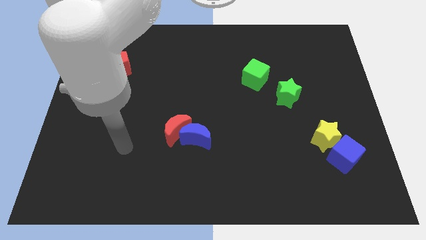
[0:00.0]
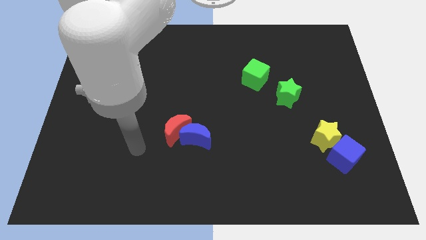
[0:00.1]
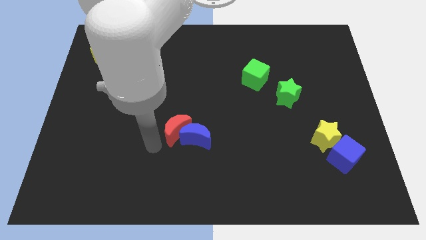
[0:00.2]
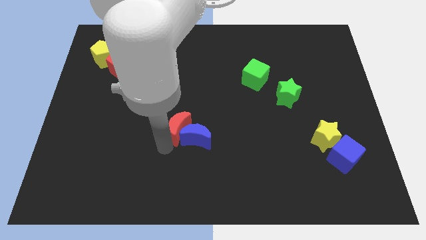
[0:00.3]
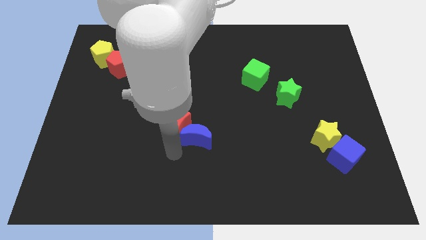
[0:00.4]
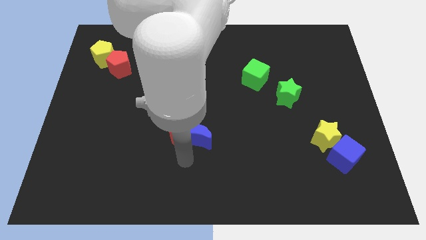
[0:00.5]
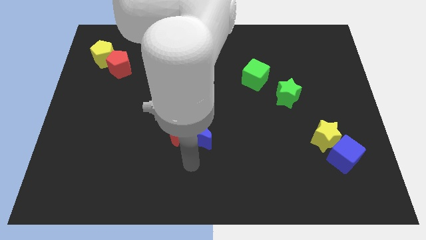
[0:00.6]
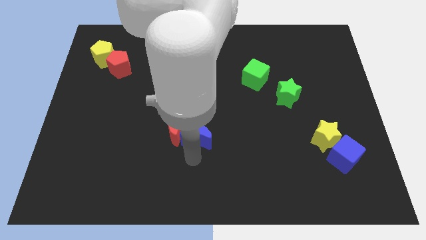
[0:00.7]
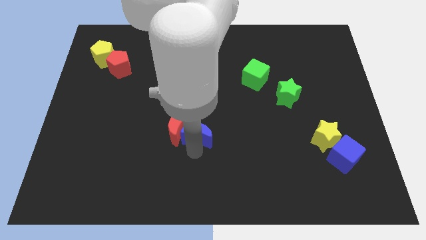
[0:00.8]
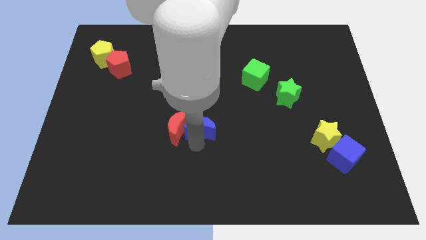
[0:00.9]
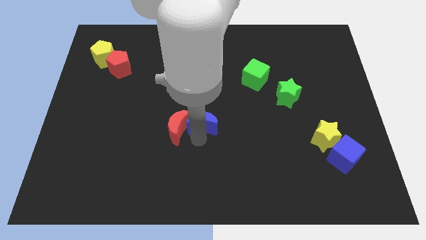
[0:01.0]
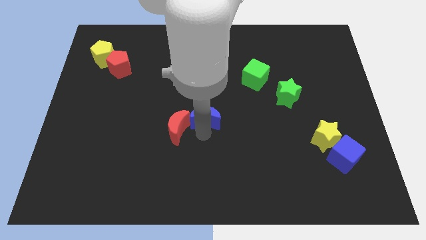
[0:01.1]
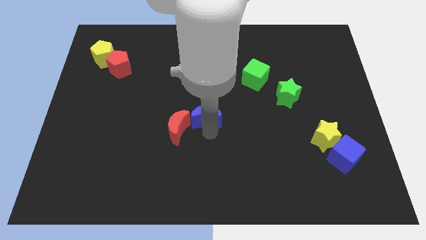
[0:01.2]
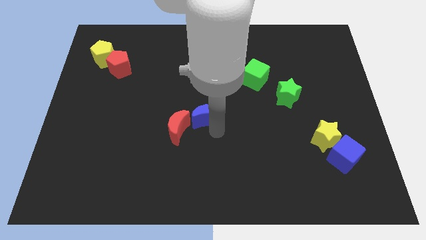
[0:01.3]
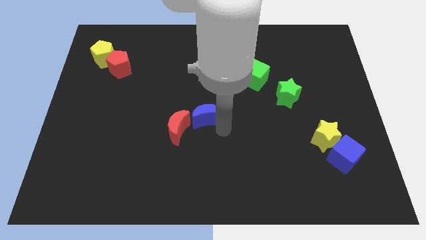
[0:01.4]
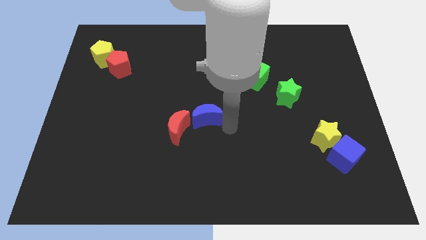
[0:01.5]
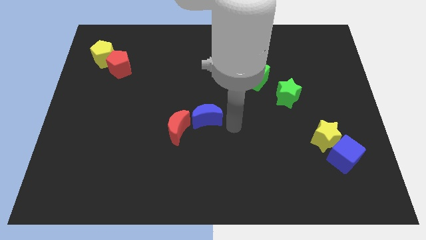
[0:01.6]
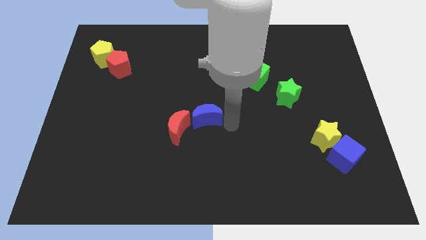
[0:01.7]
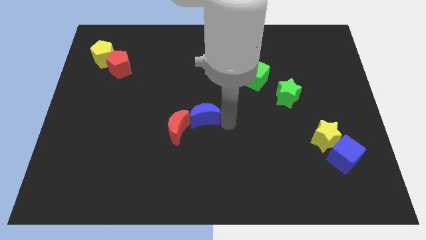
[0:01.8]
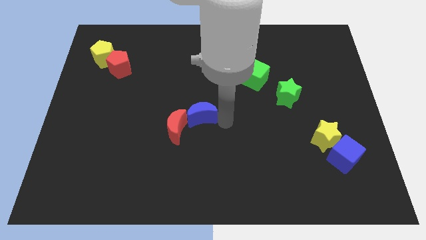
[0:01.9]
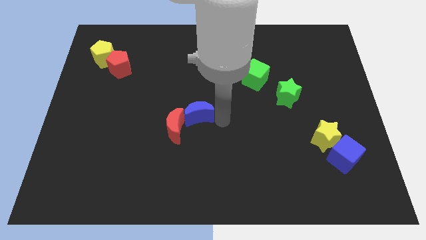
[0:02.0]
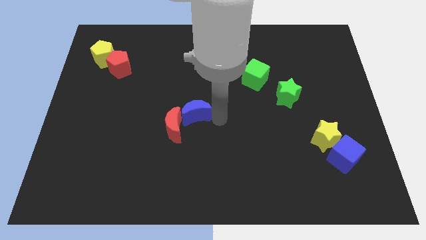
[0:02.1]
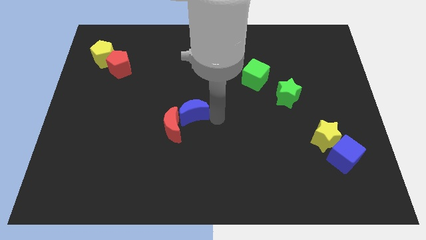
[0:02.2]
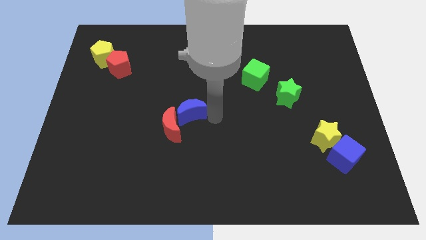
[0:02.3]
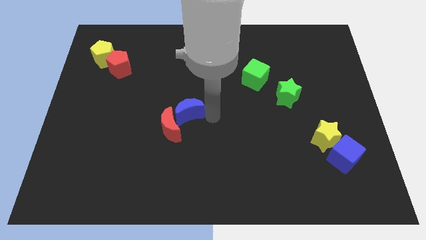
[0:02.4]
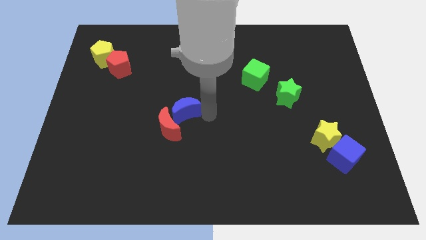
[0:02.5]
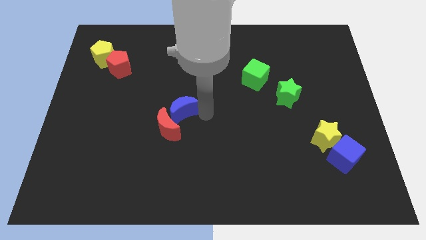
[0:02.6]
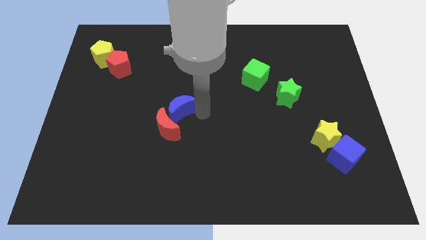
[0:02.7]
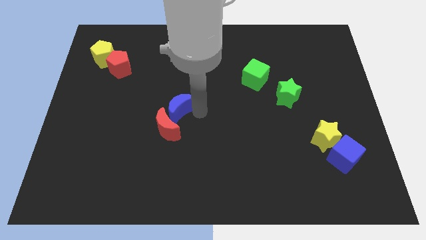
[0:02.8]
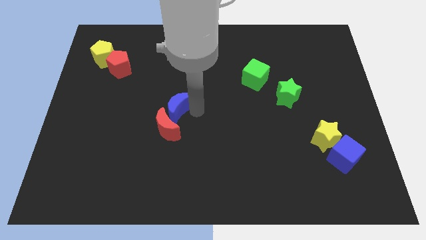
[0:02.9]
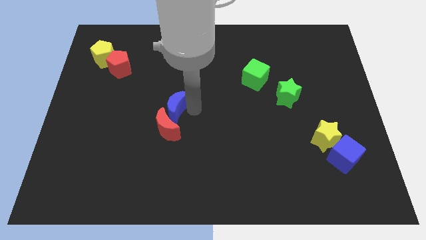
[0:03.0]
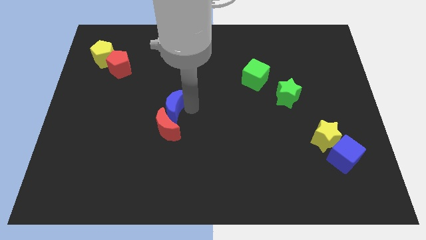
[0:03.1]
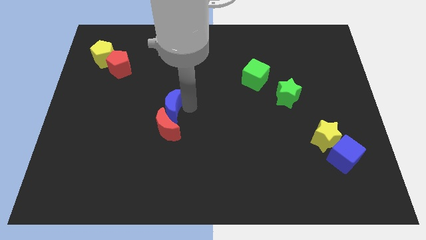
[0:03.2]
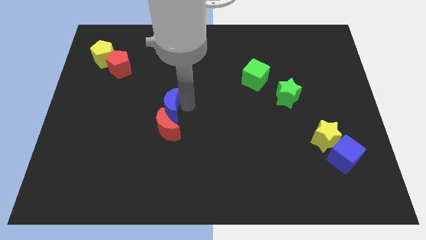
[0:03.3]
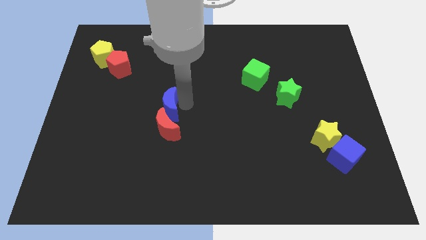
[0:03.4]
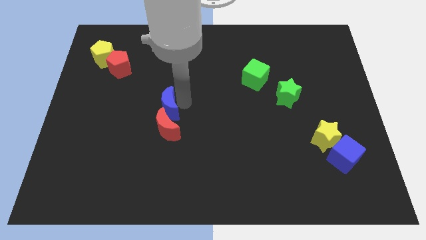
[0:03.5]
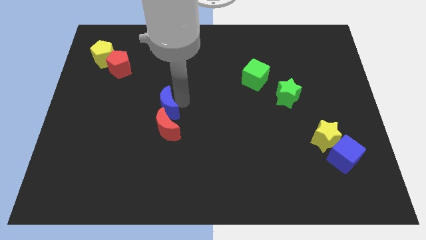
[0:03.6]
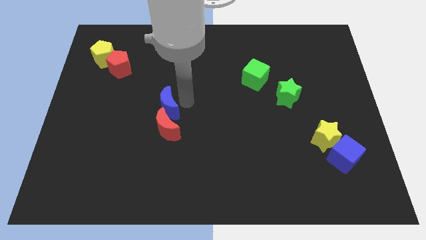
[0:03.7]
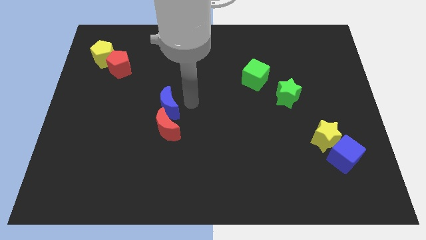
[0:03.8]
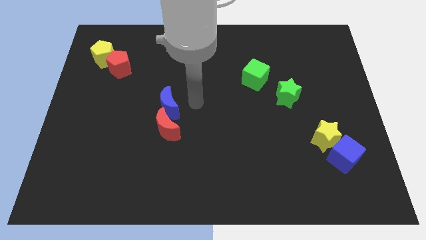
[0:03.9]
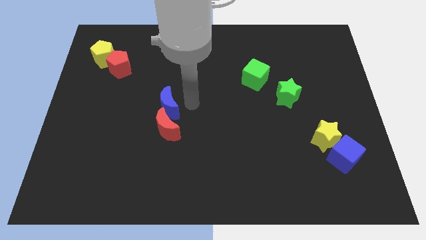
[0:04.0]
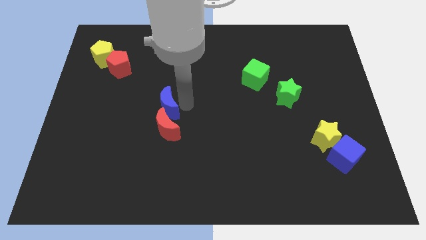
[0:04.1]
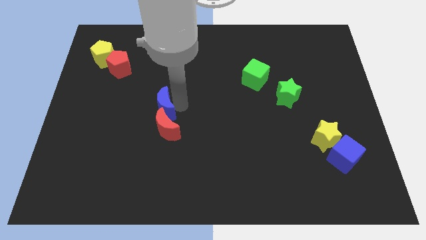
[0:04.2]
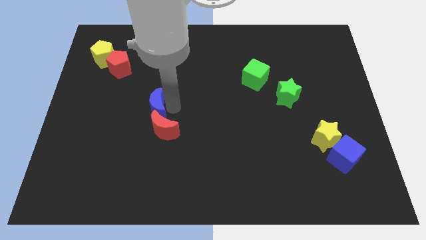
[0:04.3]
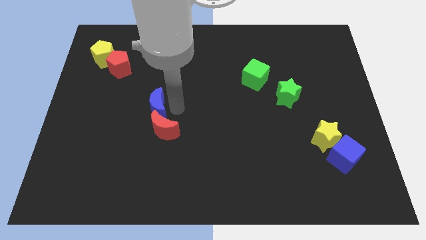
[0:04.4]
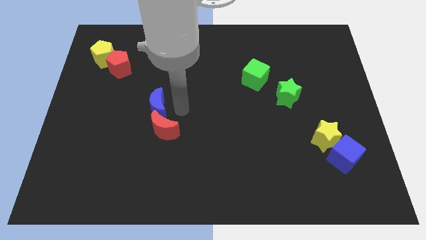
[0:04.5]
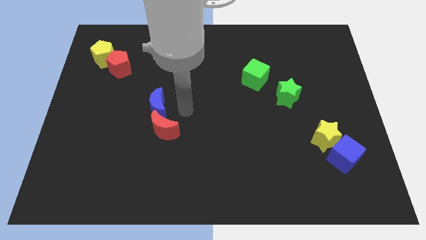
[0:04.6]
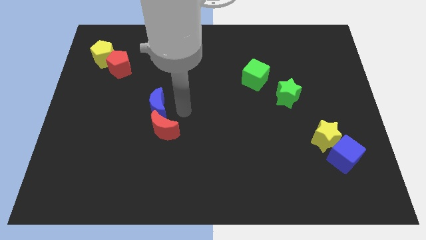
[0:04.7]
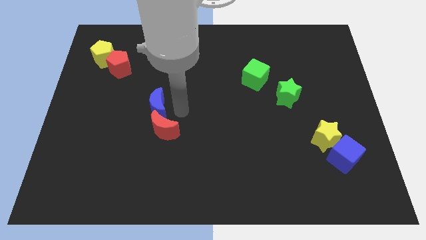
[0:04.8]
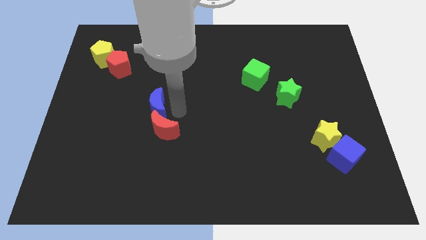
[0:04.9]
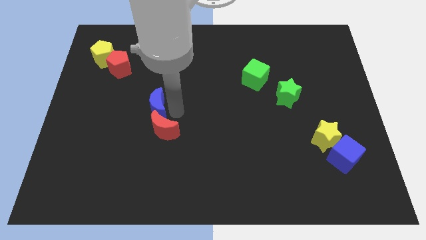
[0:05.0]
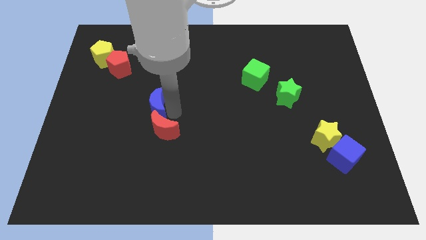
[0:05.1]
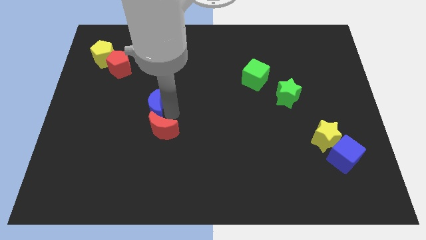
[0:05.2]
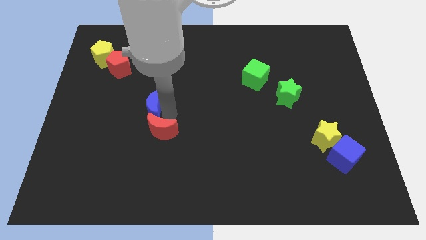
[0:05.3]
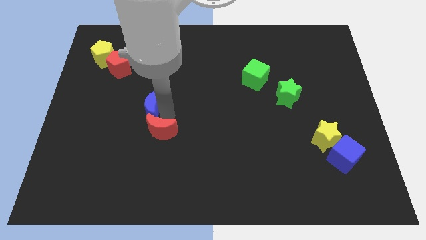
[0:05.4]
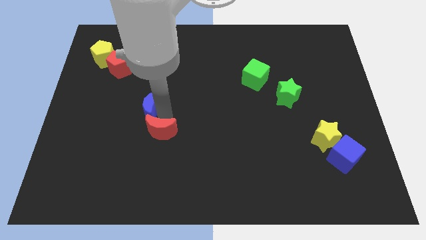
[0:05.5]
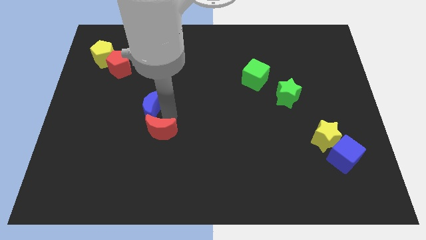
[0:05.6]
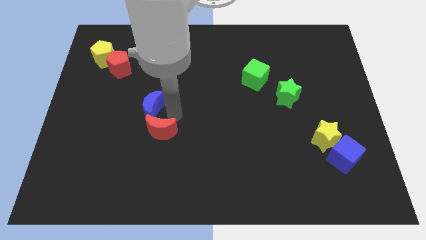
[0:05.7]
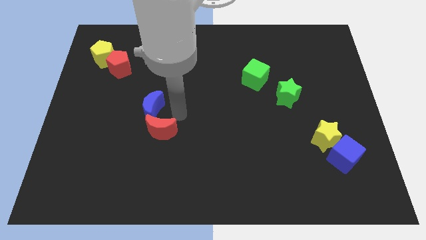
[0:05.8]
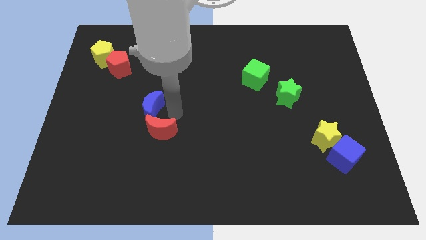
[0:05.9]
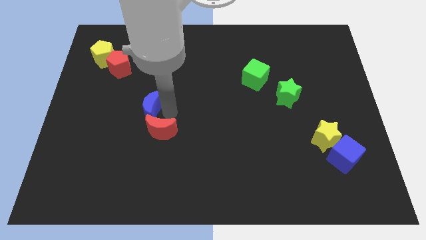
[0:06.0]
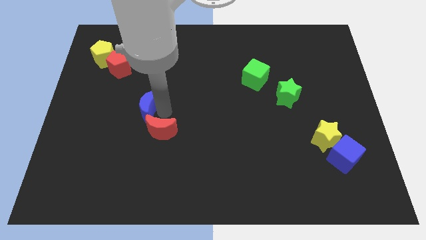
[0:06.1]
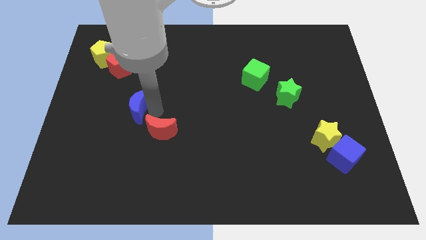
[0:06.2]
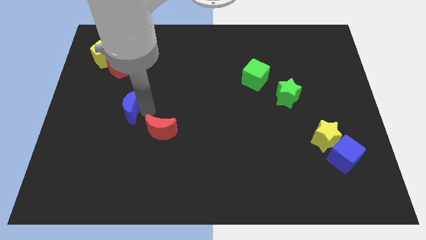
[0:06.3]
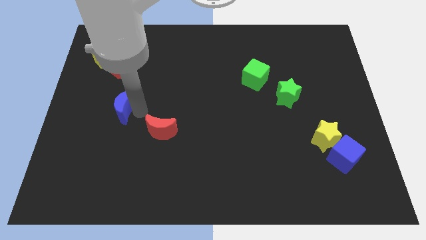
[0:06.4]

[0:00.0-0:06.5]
slide the blue moon to the bottom of the red pentagon

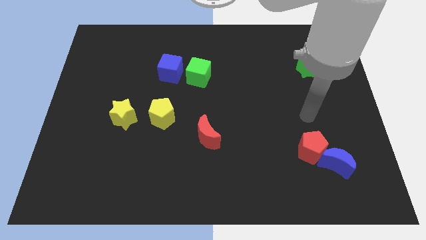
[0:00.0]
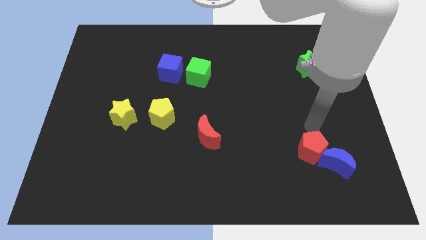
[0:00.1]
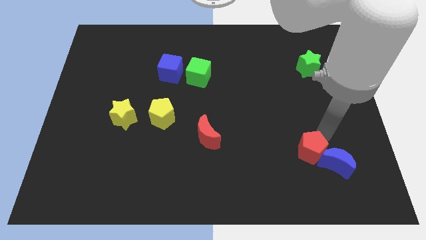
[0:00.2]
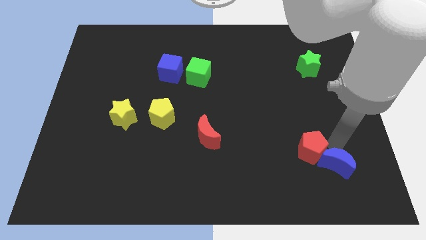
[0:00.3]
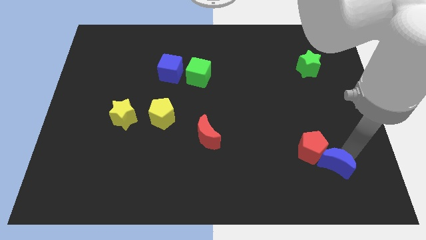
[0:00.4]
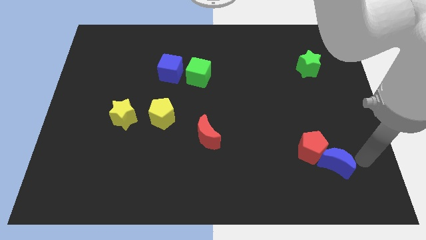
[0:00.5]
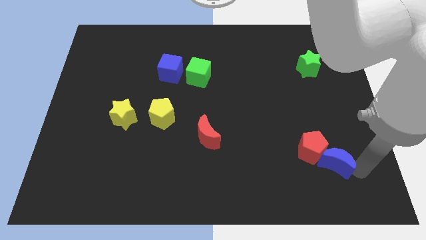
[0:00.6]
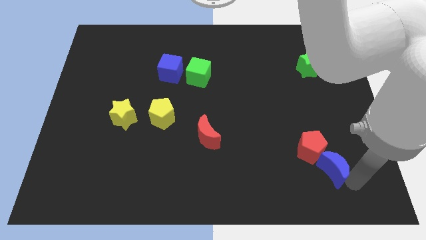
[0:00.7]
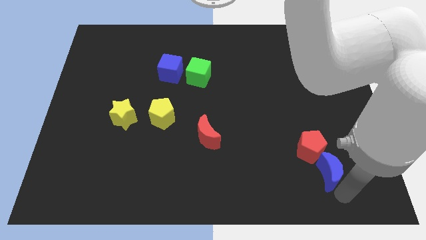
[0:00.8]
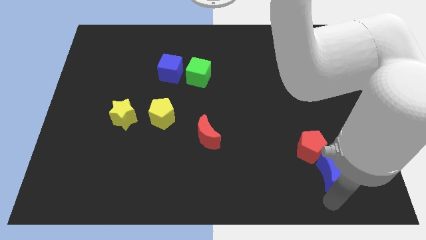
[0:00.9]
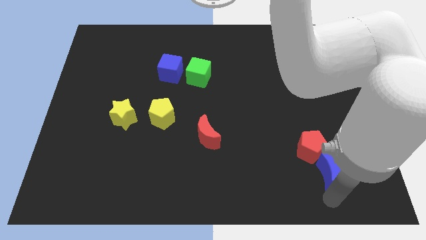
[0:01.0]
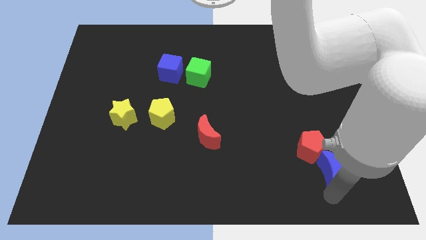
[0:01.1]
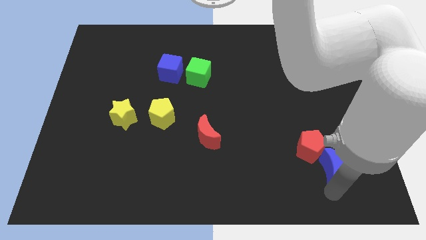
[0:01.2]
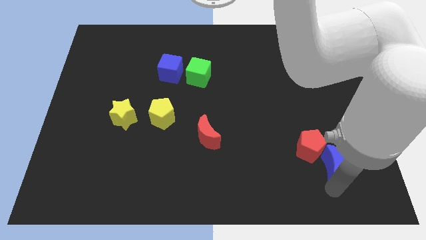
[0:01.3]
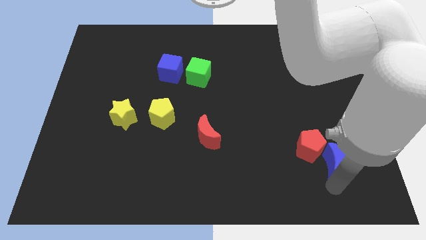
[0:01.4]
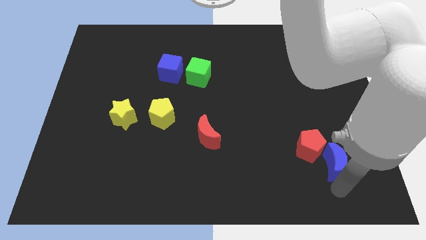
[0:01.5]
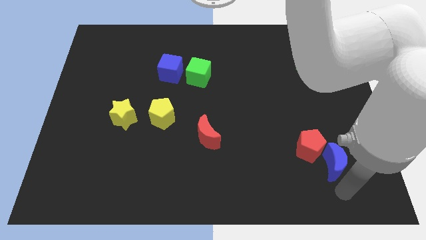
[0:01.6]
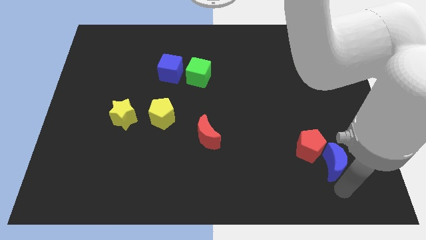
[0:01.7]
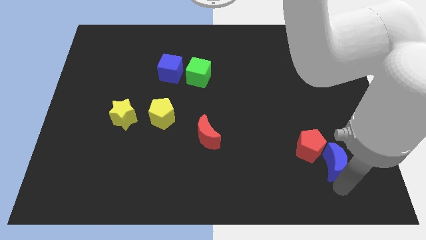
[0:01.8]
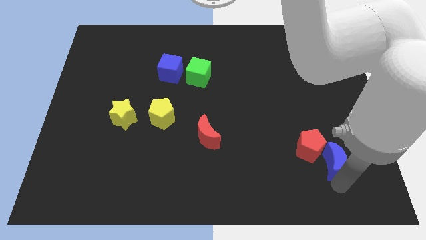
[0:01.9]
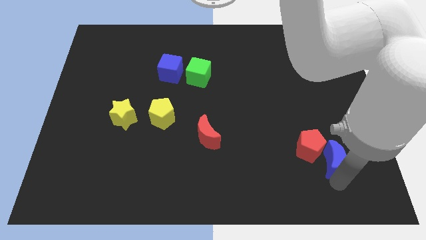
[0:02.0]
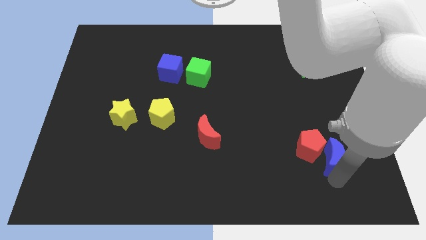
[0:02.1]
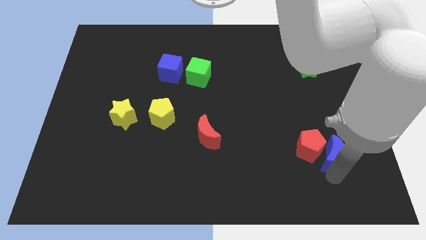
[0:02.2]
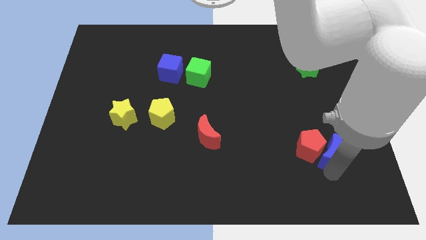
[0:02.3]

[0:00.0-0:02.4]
push the blue moon diagonally up and to the right of the red pentagon
